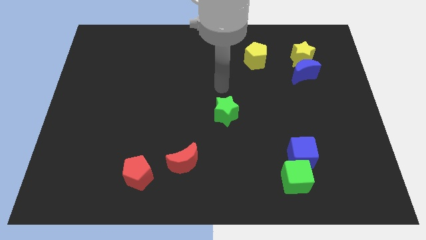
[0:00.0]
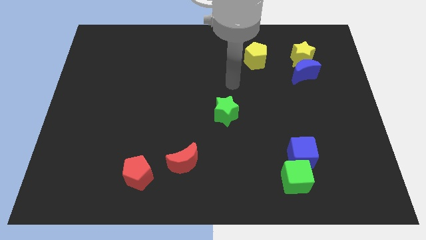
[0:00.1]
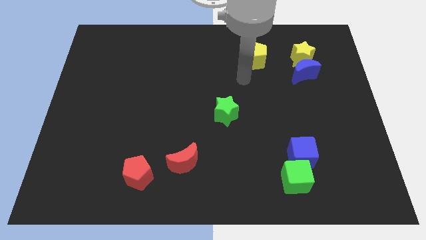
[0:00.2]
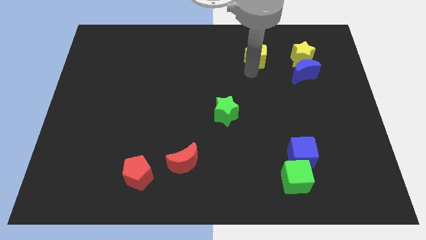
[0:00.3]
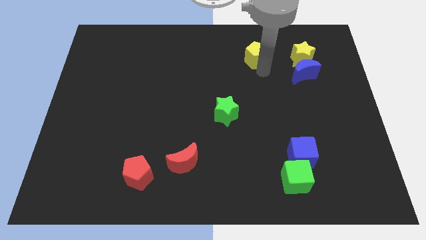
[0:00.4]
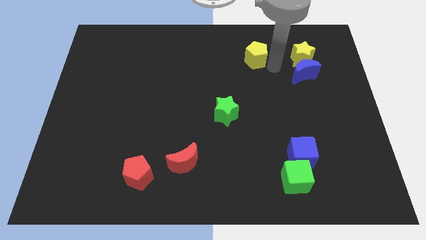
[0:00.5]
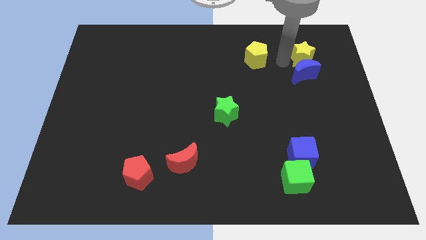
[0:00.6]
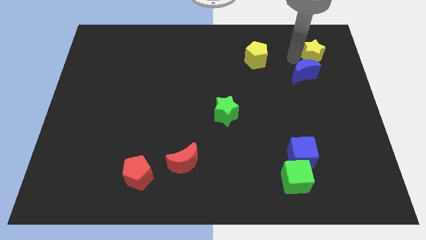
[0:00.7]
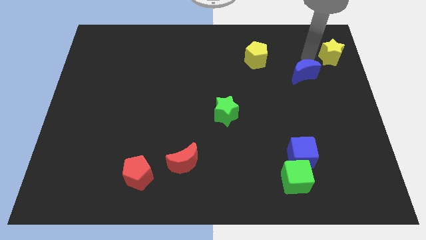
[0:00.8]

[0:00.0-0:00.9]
separate the blue moon from the yellow star

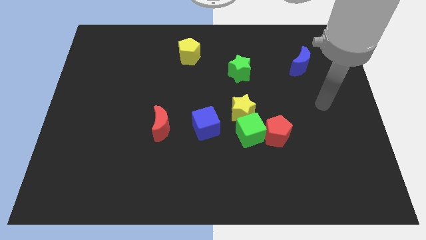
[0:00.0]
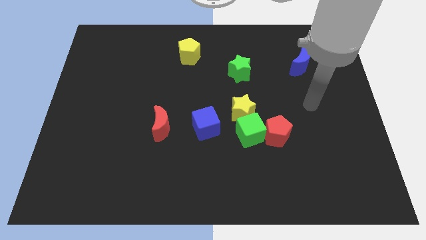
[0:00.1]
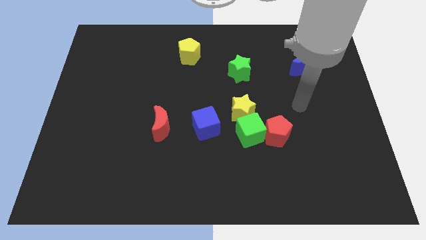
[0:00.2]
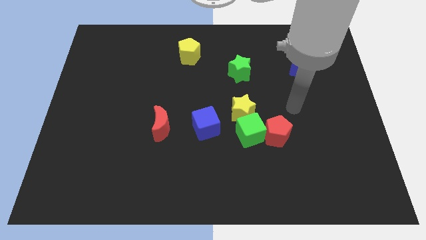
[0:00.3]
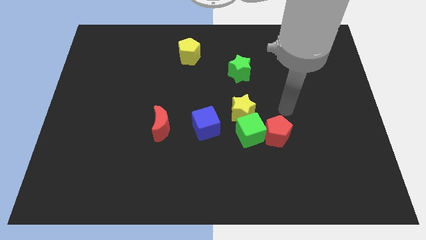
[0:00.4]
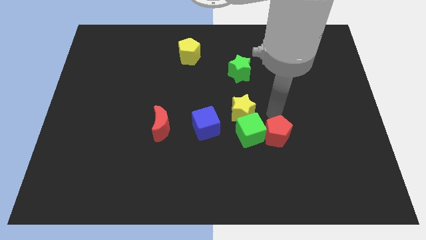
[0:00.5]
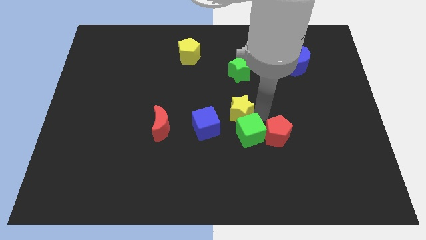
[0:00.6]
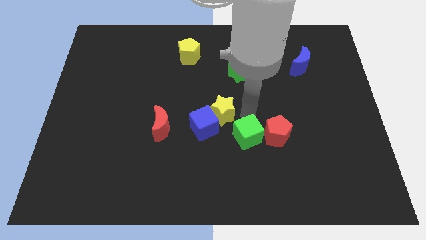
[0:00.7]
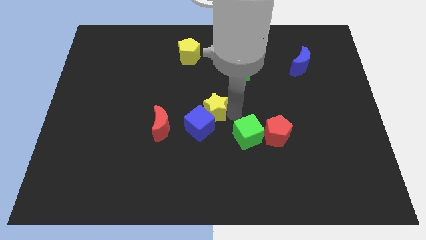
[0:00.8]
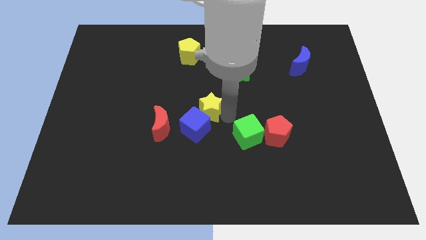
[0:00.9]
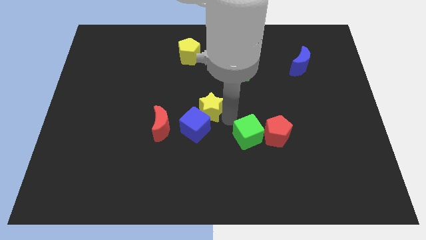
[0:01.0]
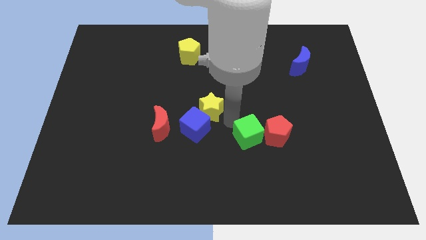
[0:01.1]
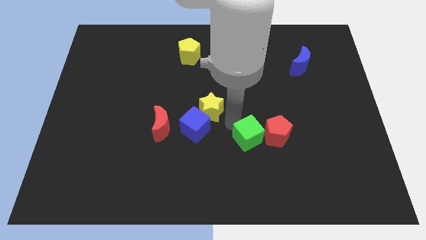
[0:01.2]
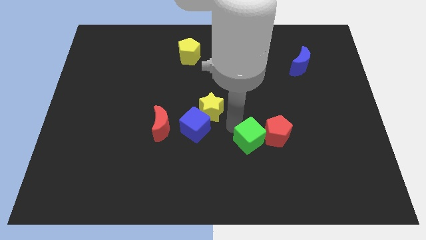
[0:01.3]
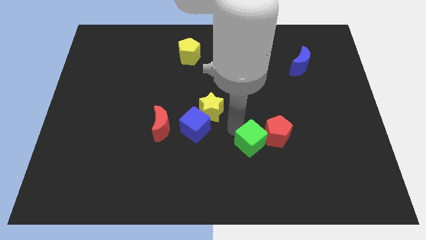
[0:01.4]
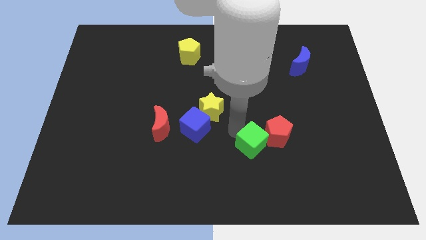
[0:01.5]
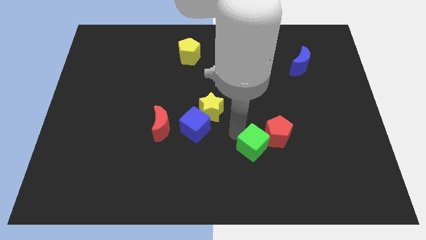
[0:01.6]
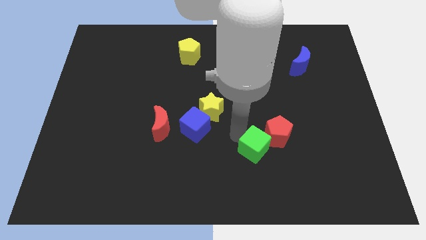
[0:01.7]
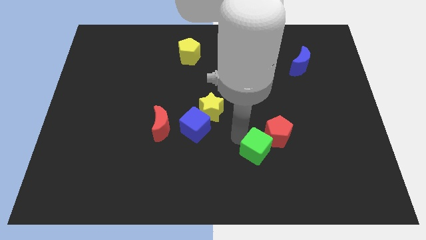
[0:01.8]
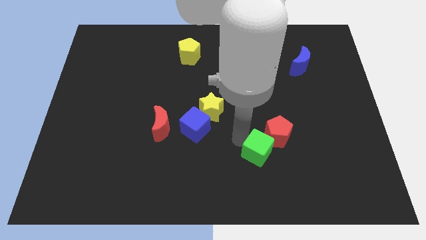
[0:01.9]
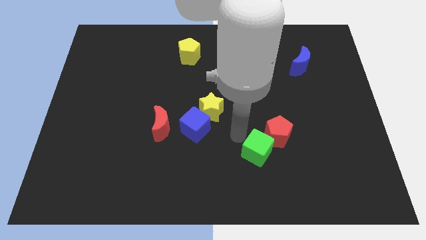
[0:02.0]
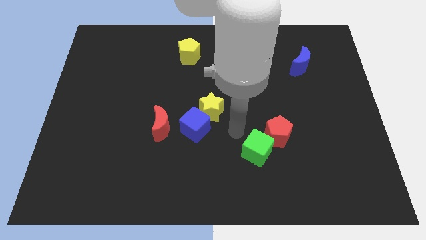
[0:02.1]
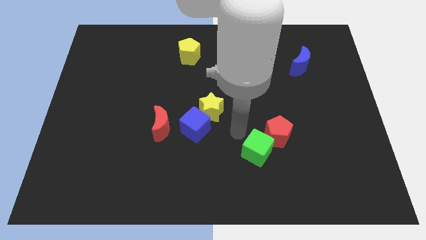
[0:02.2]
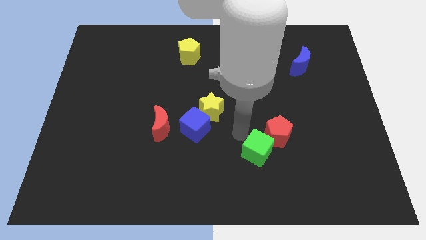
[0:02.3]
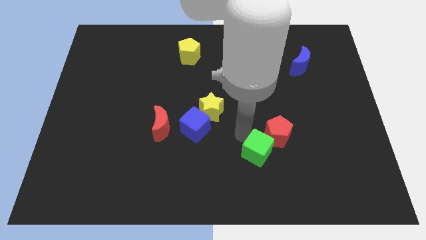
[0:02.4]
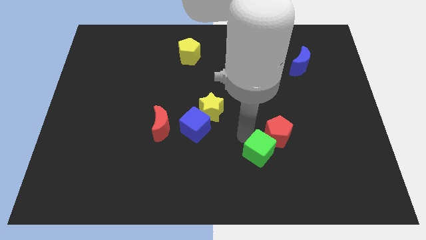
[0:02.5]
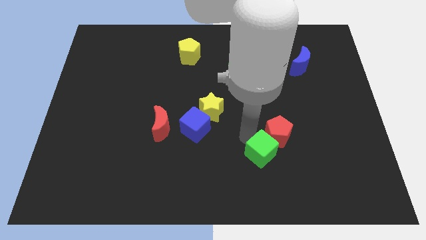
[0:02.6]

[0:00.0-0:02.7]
separate the green cube from the group of blocks

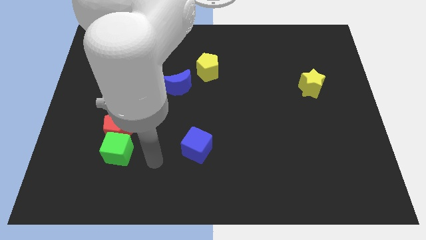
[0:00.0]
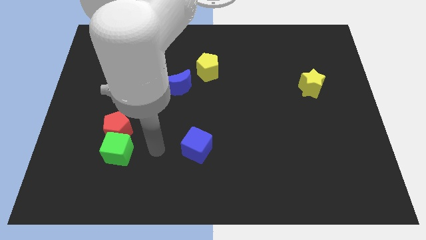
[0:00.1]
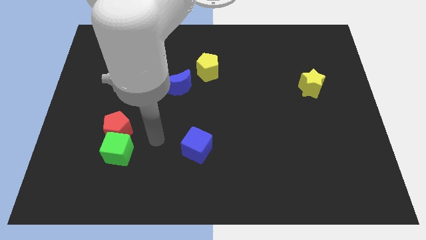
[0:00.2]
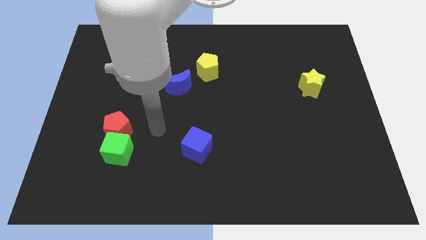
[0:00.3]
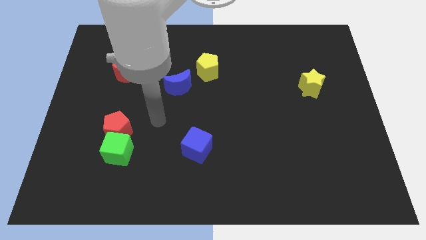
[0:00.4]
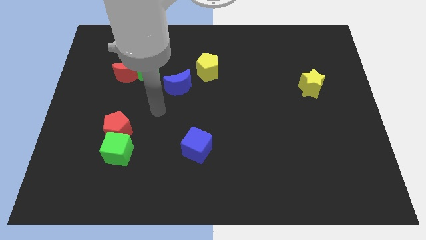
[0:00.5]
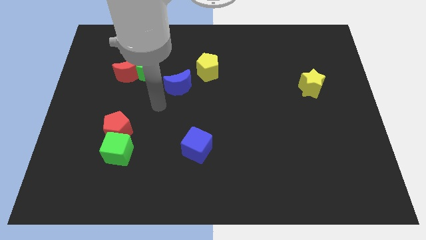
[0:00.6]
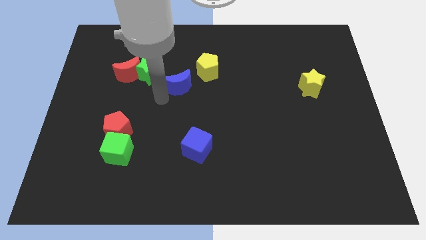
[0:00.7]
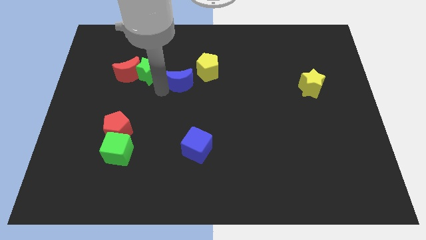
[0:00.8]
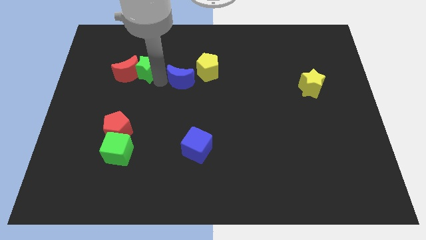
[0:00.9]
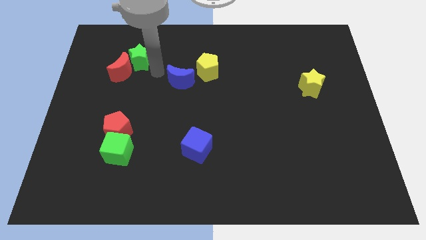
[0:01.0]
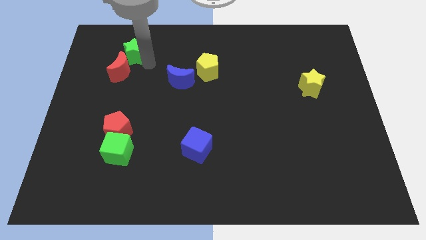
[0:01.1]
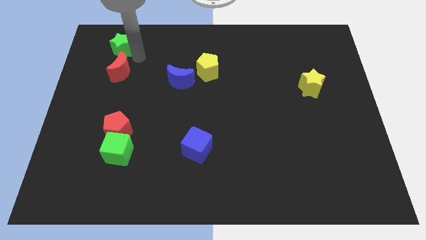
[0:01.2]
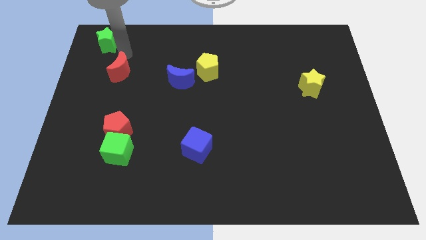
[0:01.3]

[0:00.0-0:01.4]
move the red moon away from the green star

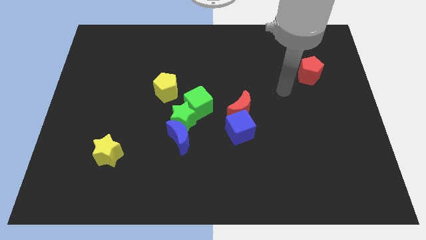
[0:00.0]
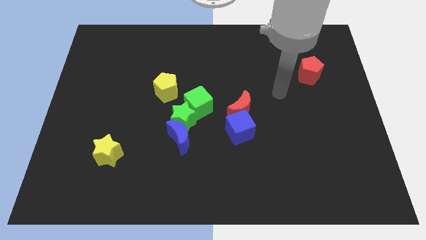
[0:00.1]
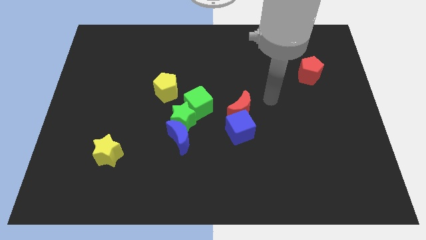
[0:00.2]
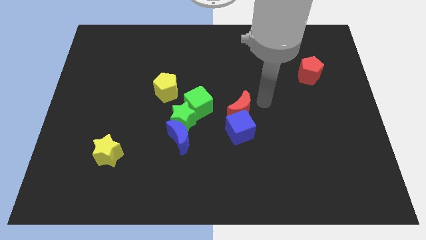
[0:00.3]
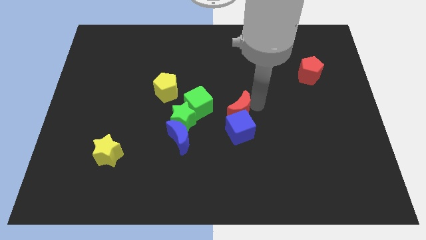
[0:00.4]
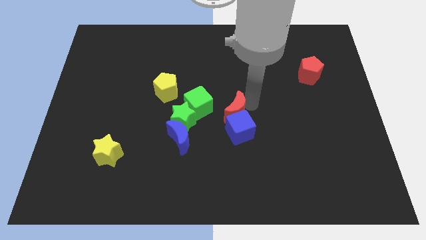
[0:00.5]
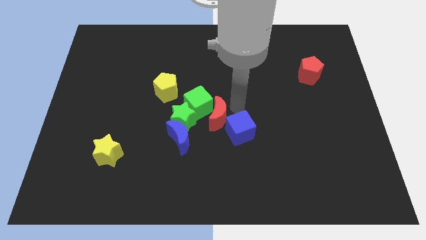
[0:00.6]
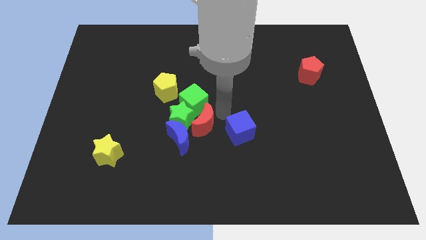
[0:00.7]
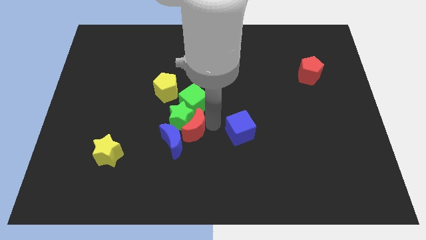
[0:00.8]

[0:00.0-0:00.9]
move the blue cube away from the red moon

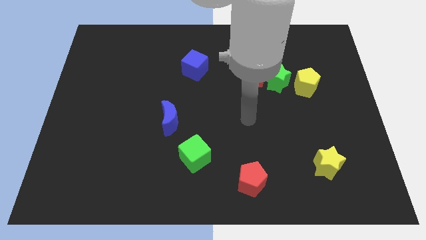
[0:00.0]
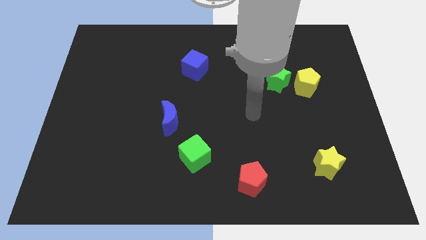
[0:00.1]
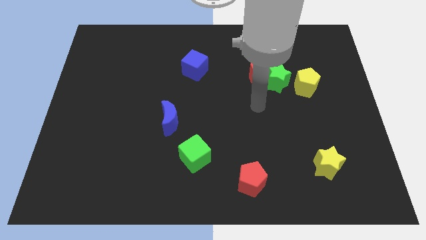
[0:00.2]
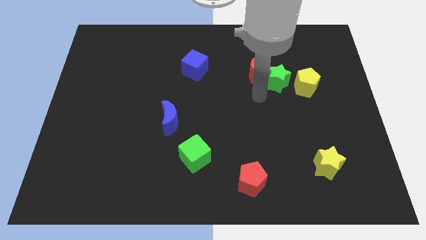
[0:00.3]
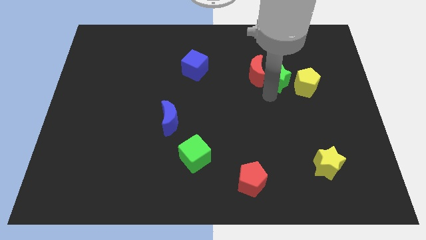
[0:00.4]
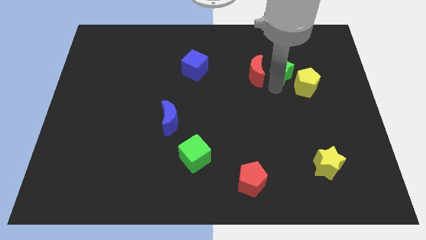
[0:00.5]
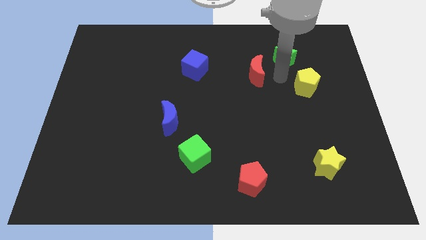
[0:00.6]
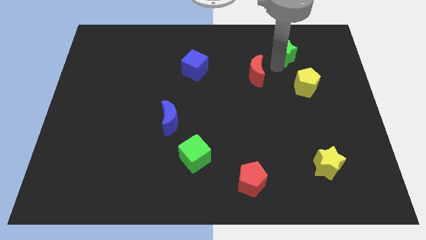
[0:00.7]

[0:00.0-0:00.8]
separate the red moon from the green star

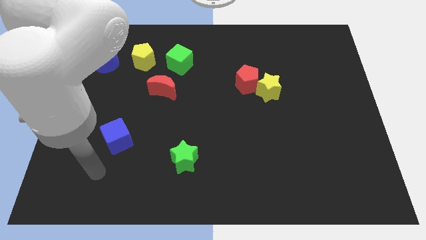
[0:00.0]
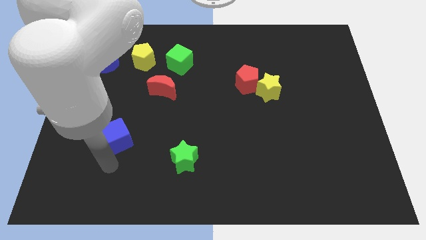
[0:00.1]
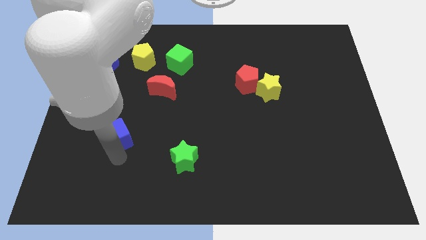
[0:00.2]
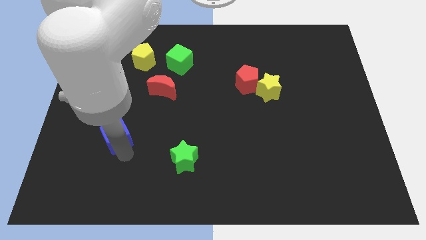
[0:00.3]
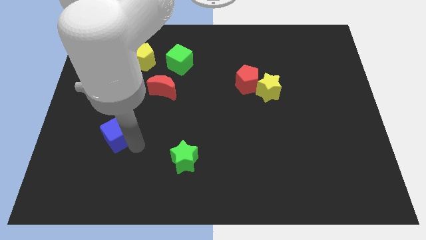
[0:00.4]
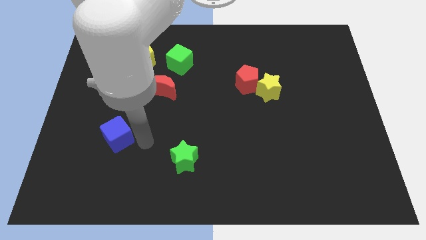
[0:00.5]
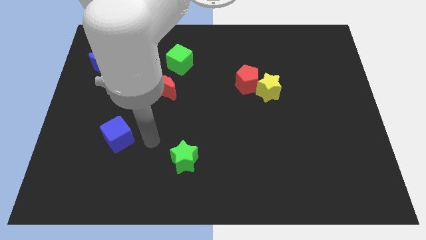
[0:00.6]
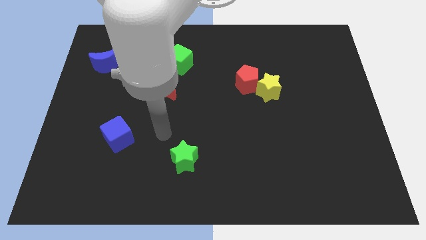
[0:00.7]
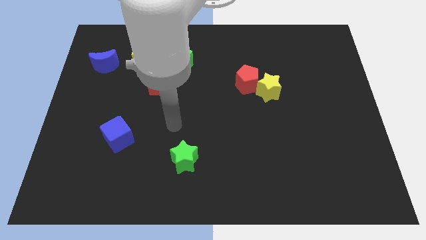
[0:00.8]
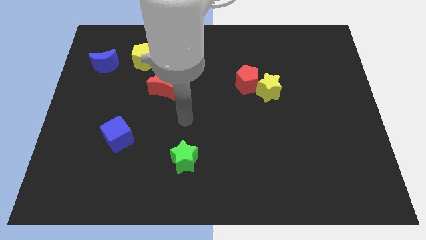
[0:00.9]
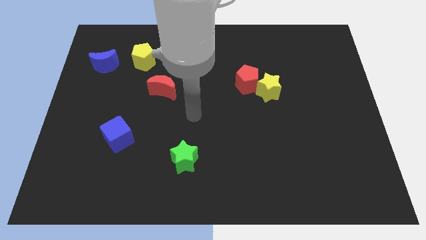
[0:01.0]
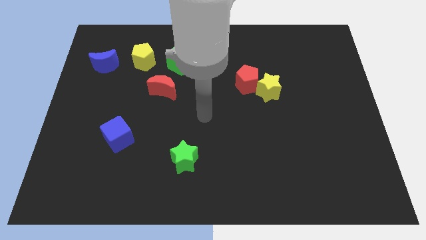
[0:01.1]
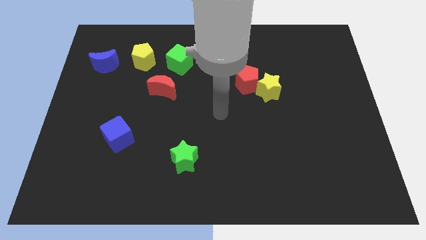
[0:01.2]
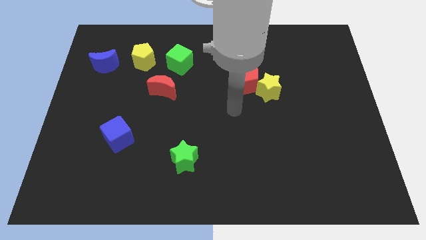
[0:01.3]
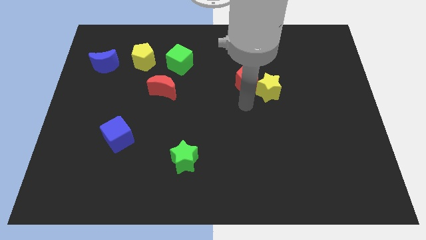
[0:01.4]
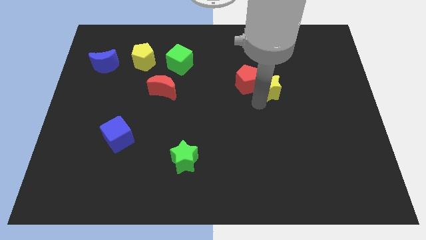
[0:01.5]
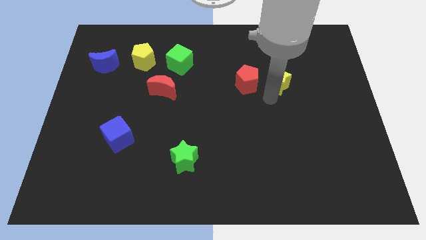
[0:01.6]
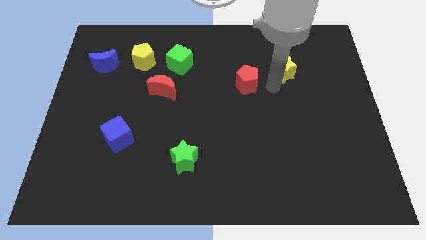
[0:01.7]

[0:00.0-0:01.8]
separate the red pentagon from the yellow star

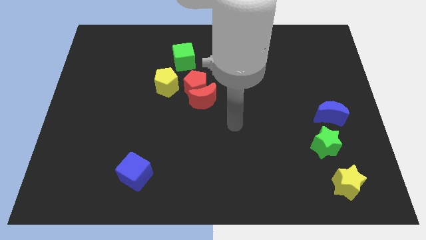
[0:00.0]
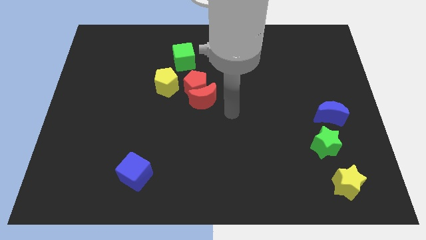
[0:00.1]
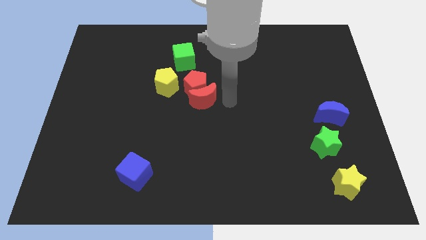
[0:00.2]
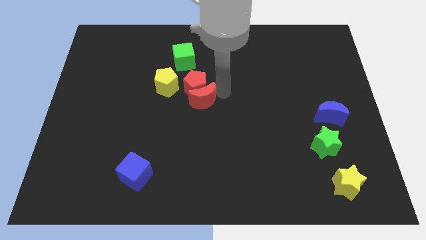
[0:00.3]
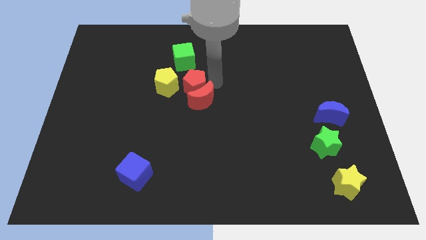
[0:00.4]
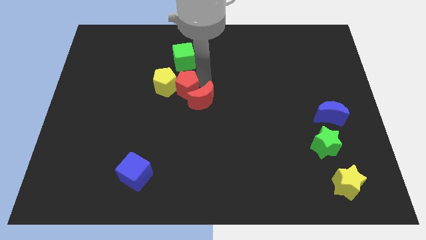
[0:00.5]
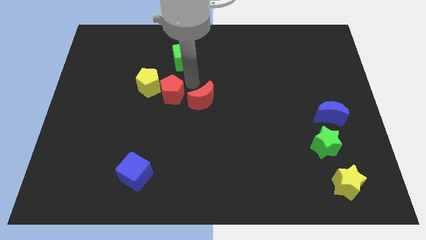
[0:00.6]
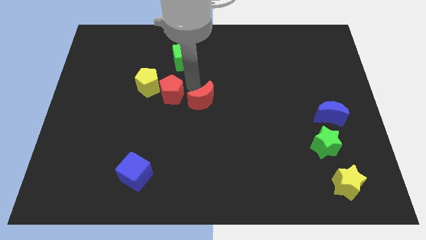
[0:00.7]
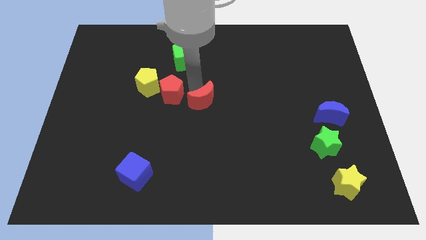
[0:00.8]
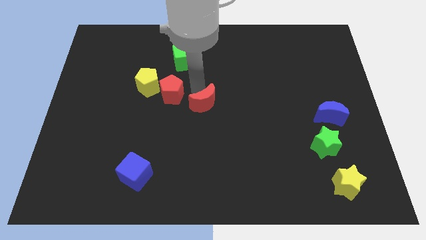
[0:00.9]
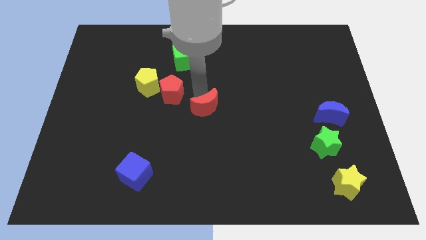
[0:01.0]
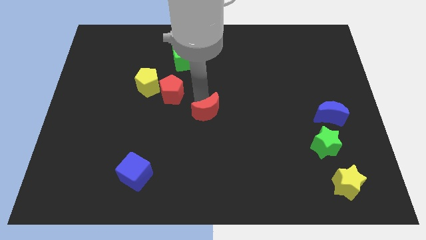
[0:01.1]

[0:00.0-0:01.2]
pull the red moon apart from the red pentagon
